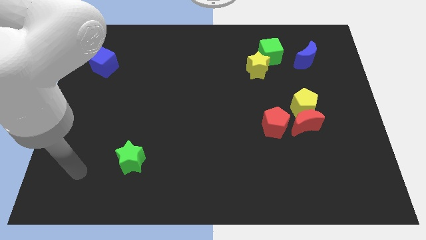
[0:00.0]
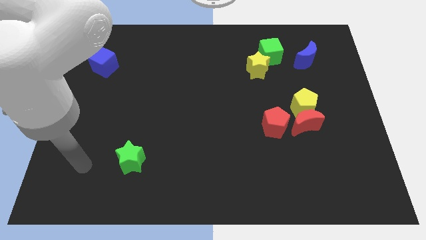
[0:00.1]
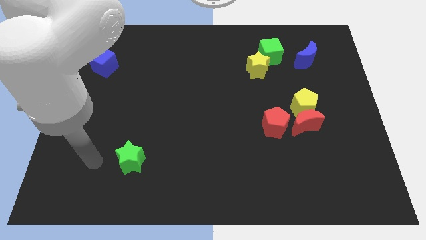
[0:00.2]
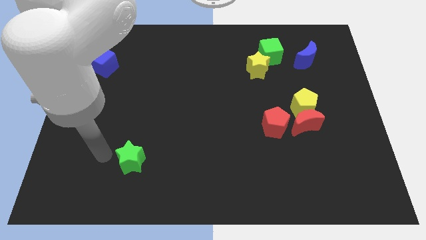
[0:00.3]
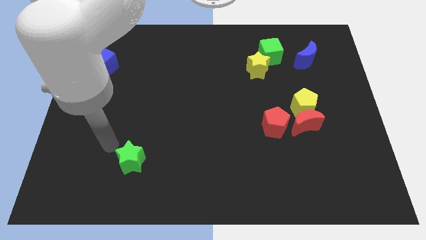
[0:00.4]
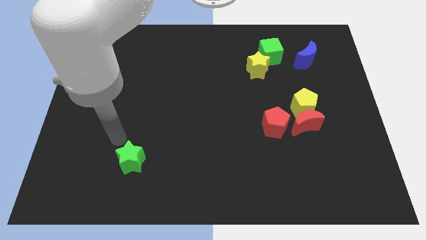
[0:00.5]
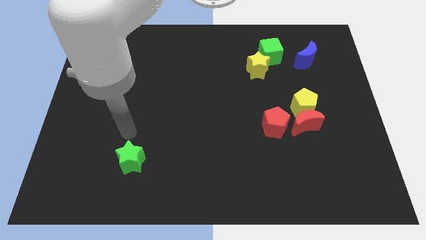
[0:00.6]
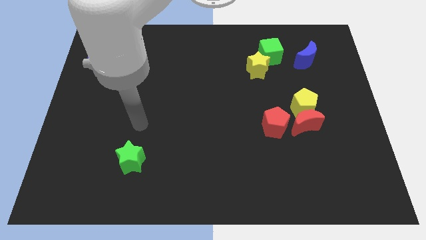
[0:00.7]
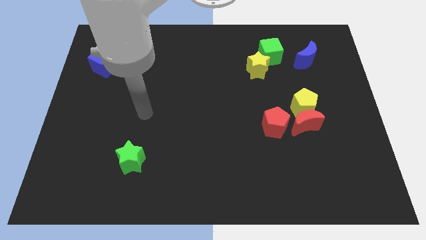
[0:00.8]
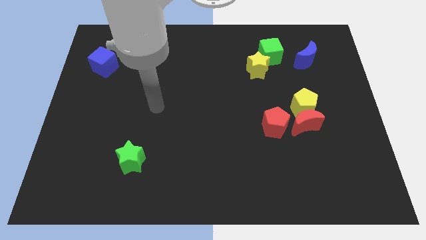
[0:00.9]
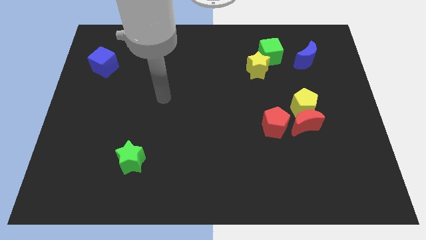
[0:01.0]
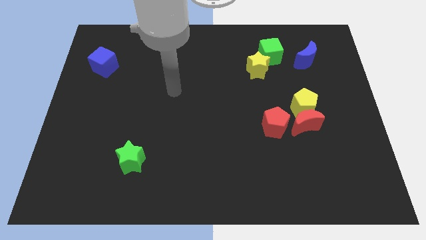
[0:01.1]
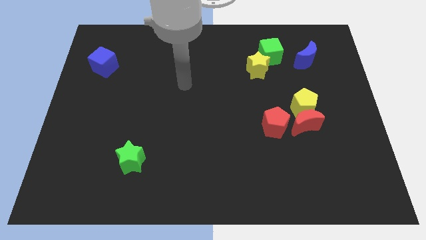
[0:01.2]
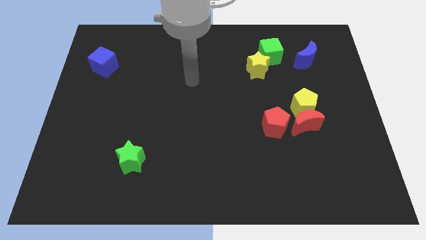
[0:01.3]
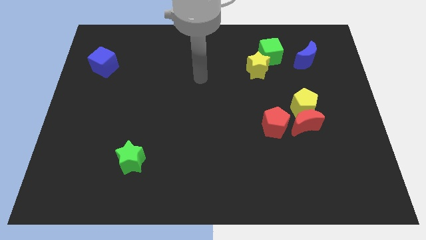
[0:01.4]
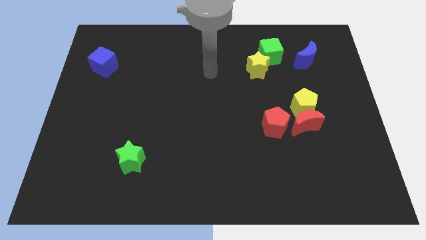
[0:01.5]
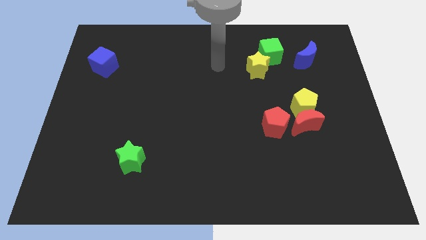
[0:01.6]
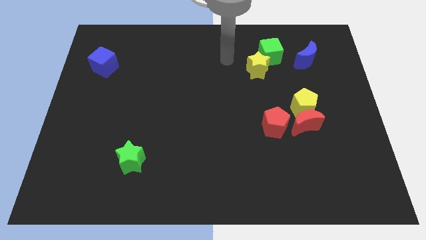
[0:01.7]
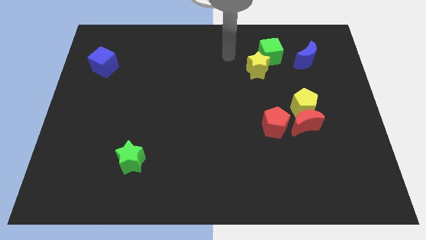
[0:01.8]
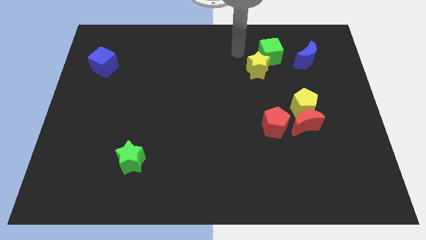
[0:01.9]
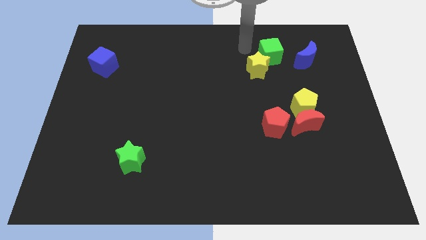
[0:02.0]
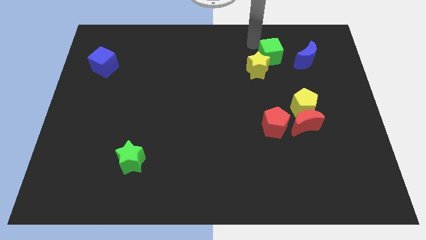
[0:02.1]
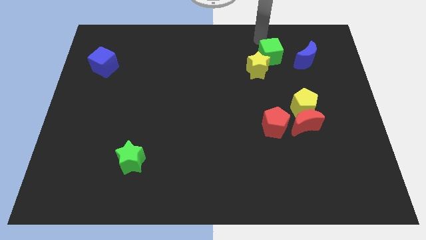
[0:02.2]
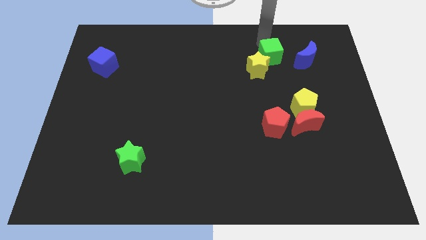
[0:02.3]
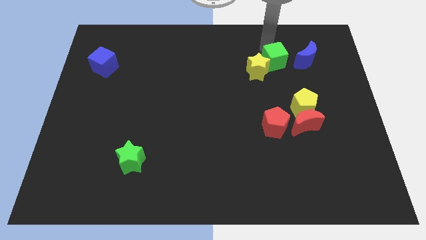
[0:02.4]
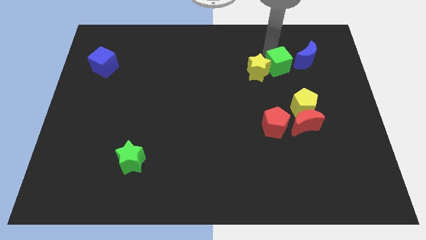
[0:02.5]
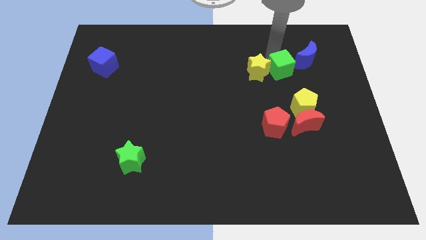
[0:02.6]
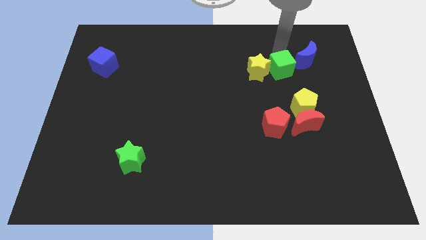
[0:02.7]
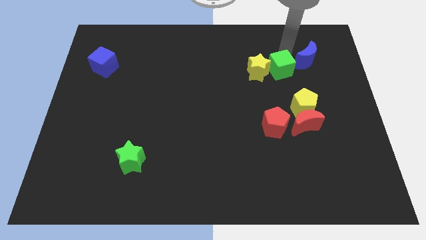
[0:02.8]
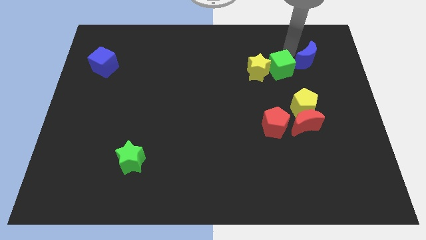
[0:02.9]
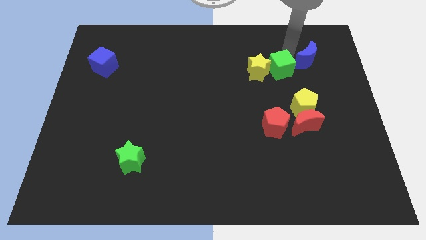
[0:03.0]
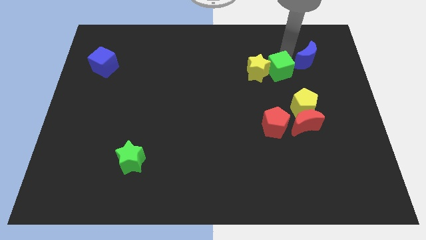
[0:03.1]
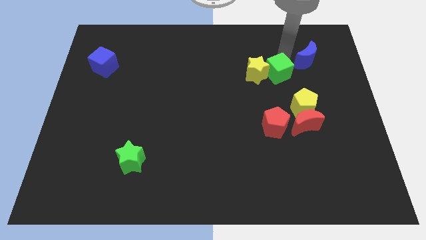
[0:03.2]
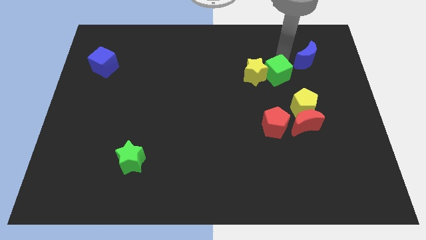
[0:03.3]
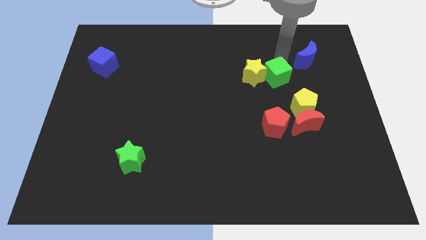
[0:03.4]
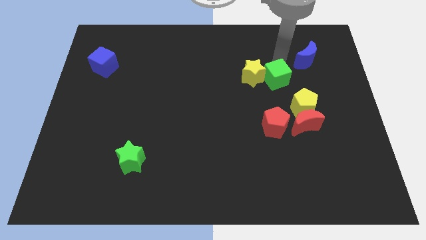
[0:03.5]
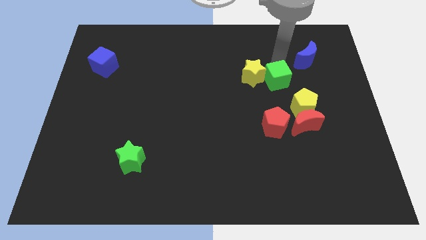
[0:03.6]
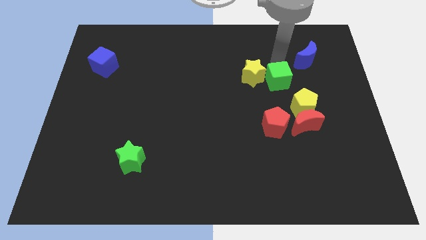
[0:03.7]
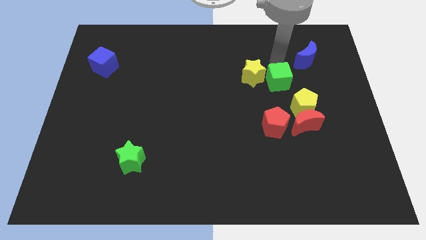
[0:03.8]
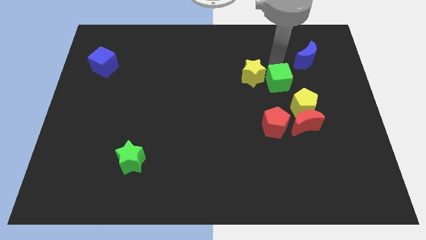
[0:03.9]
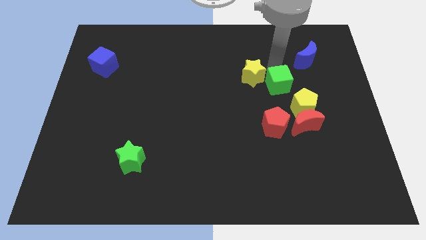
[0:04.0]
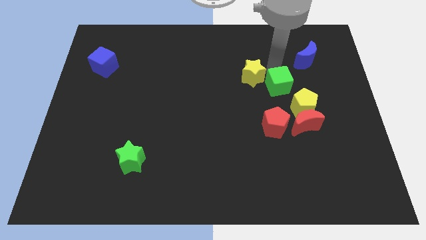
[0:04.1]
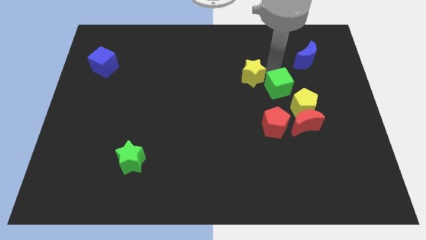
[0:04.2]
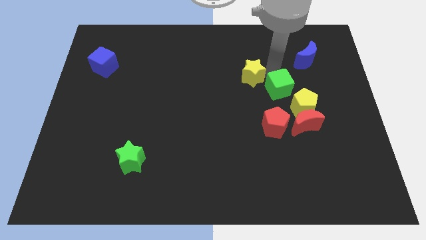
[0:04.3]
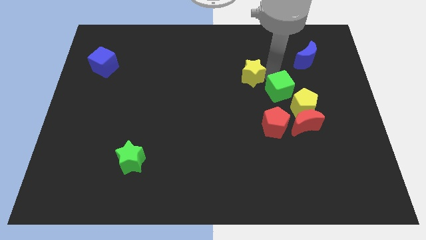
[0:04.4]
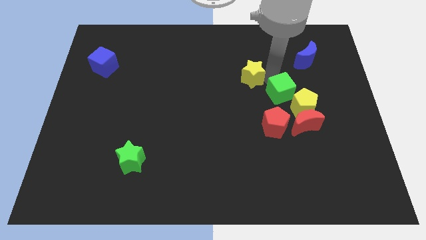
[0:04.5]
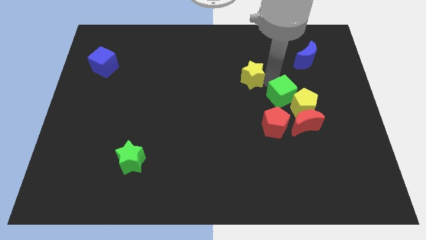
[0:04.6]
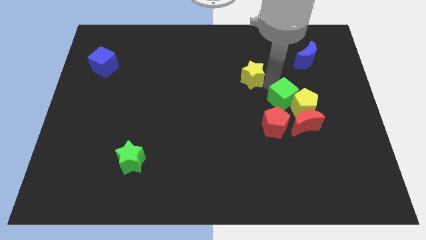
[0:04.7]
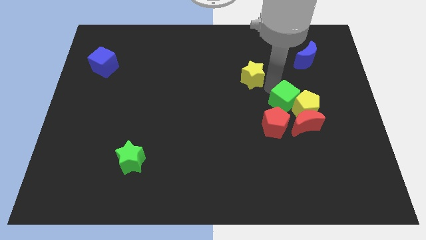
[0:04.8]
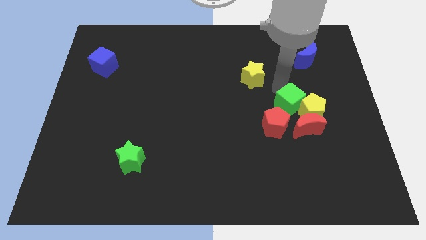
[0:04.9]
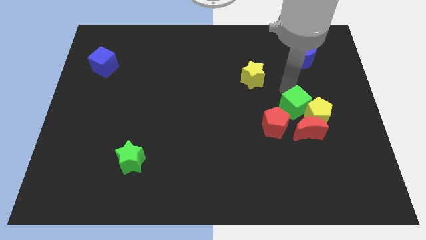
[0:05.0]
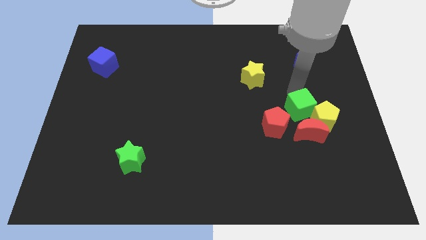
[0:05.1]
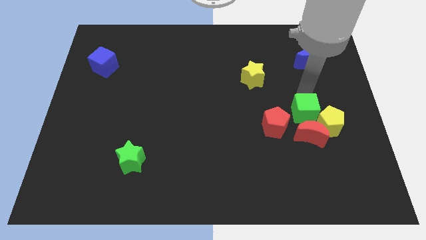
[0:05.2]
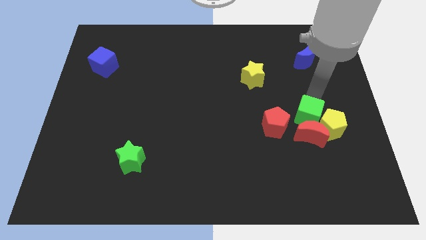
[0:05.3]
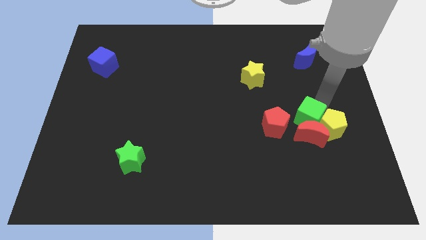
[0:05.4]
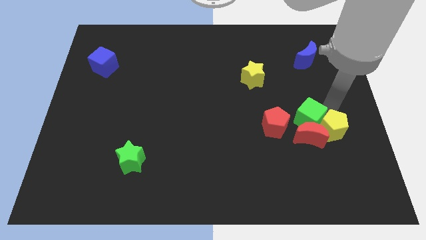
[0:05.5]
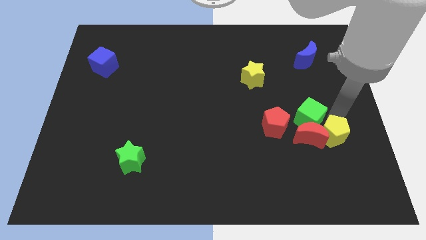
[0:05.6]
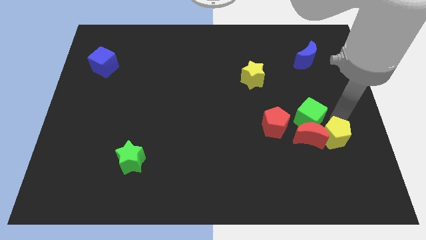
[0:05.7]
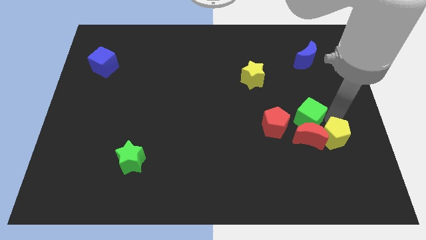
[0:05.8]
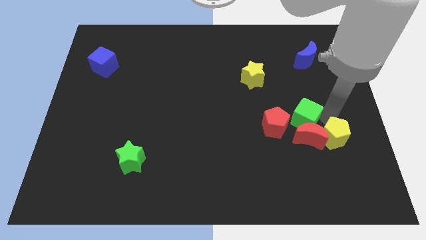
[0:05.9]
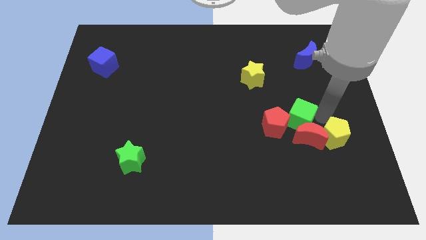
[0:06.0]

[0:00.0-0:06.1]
slide the green cube down

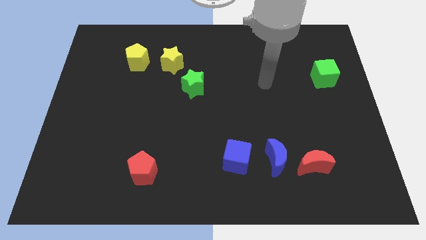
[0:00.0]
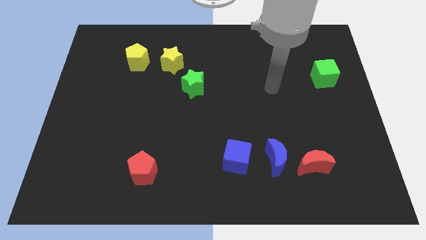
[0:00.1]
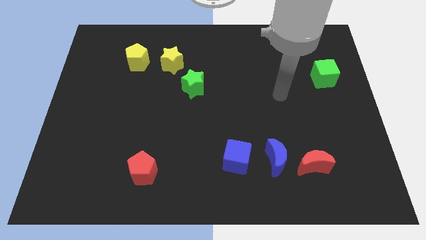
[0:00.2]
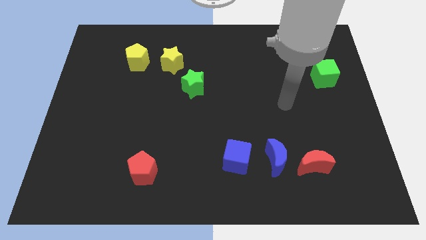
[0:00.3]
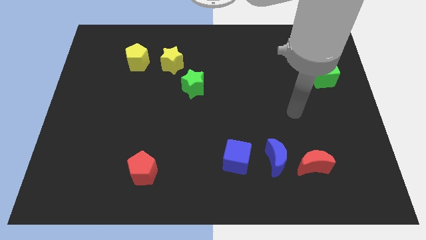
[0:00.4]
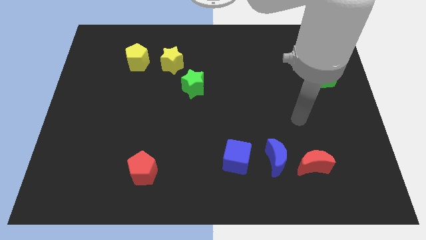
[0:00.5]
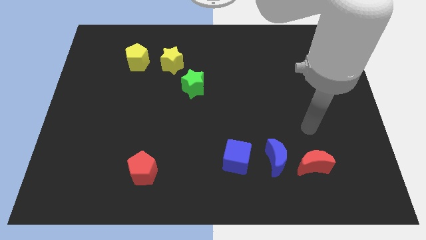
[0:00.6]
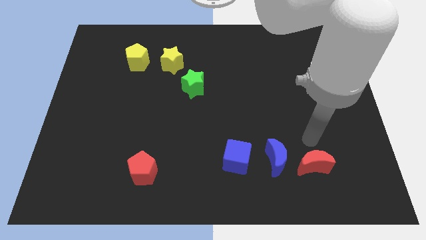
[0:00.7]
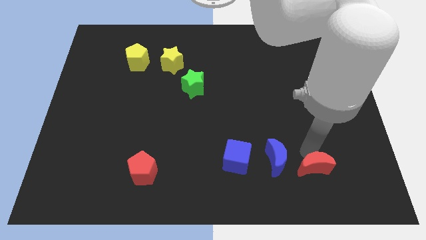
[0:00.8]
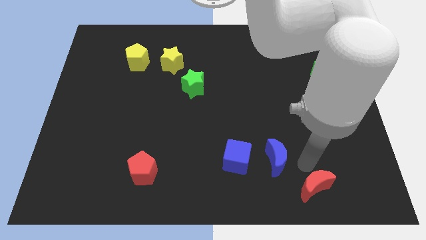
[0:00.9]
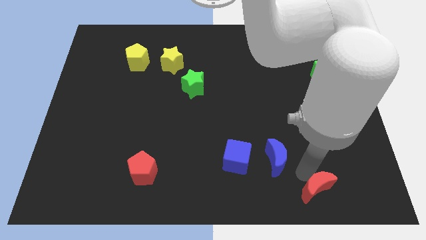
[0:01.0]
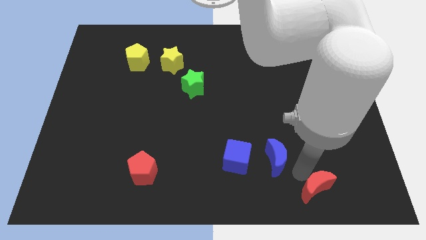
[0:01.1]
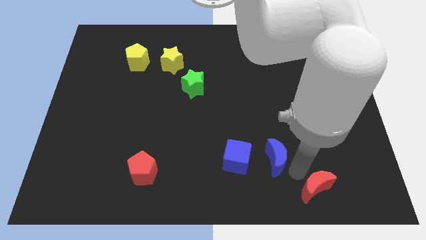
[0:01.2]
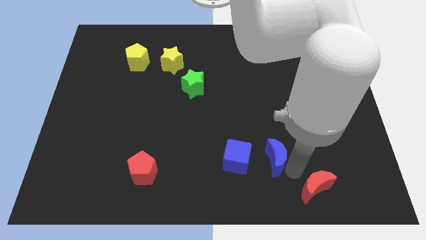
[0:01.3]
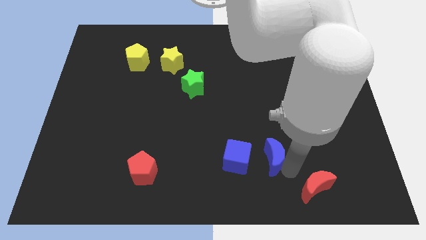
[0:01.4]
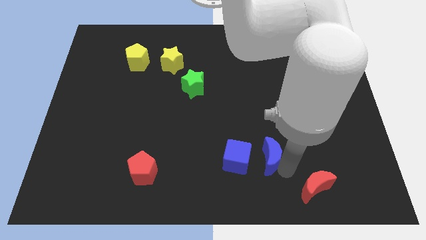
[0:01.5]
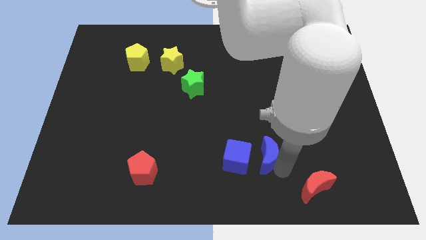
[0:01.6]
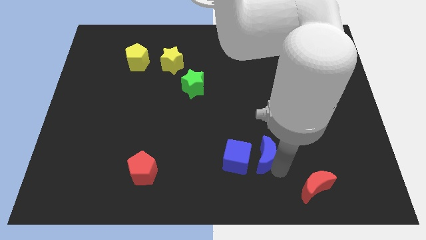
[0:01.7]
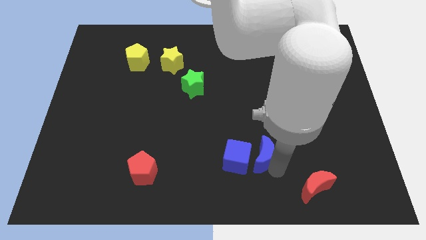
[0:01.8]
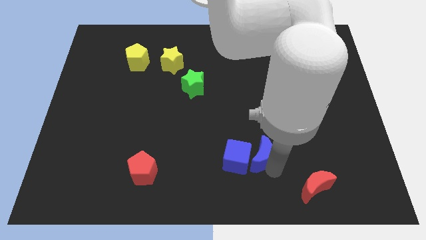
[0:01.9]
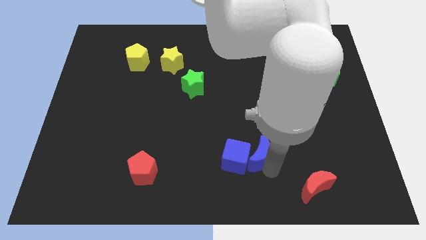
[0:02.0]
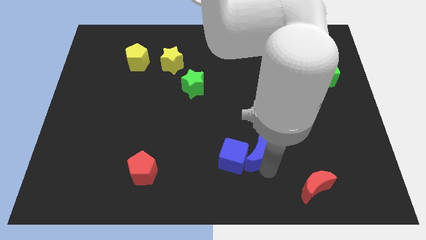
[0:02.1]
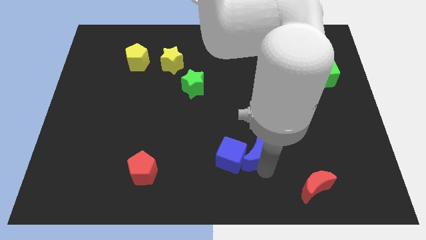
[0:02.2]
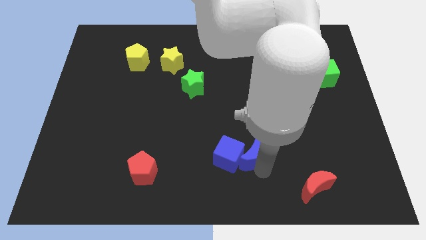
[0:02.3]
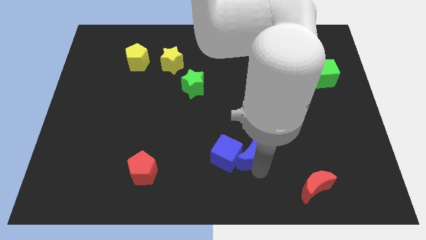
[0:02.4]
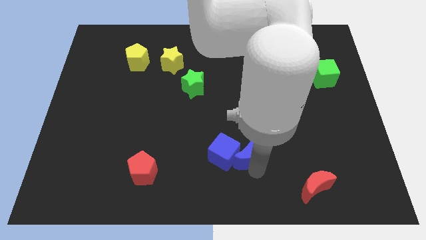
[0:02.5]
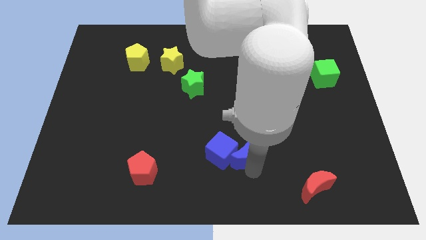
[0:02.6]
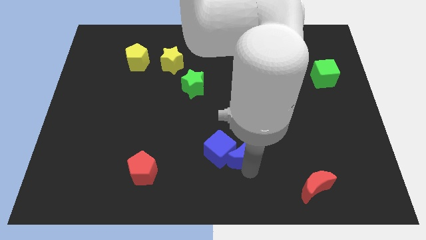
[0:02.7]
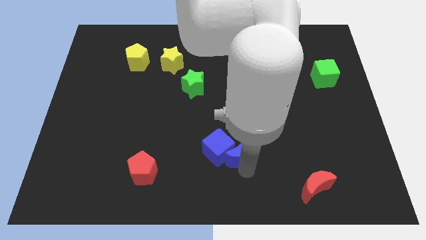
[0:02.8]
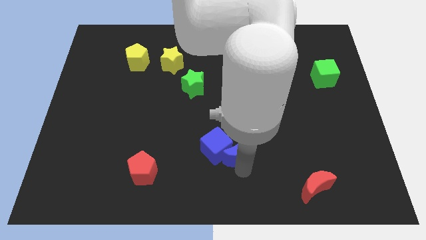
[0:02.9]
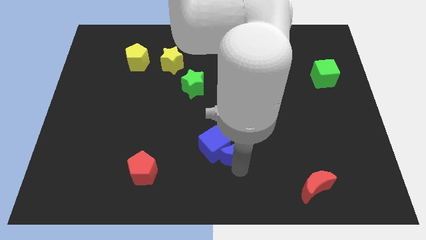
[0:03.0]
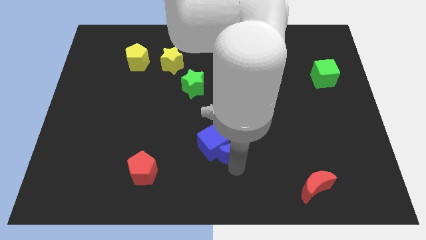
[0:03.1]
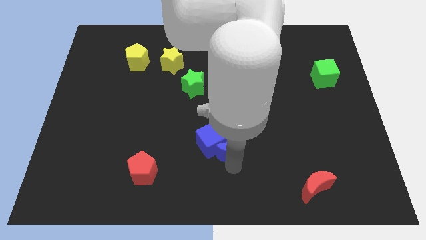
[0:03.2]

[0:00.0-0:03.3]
move the blue moon a bit upwards and left diagonally
